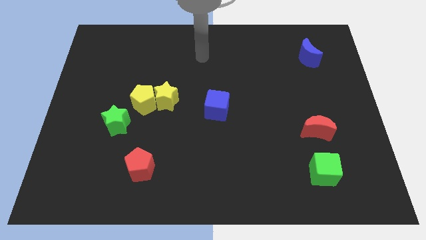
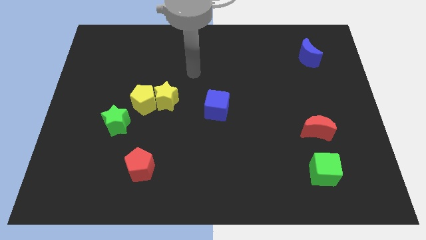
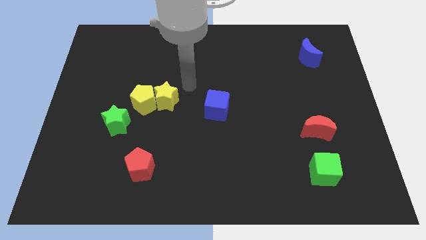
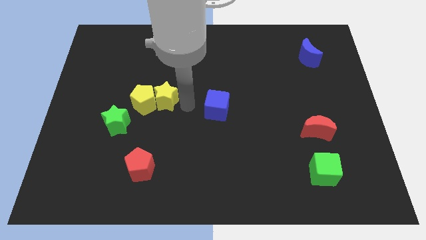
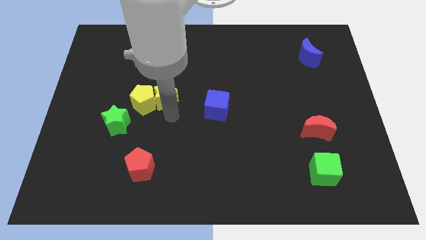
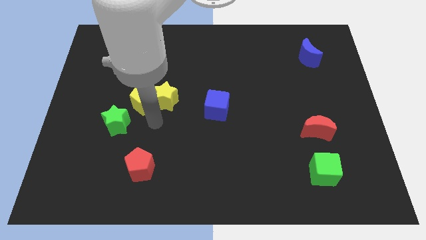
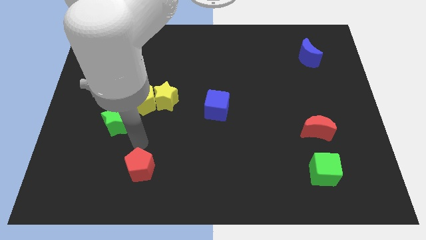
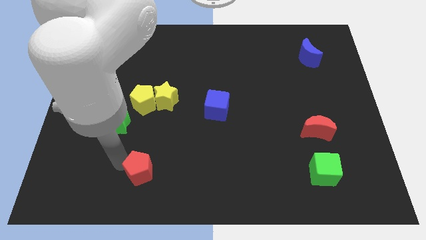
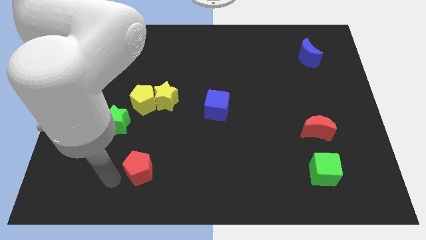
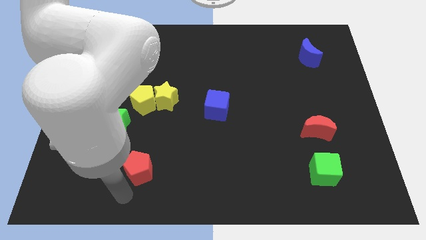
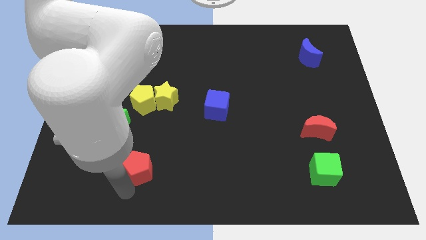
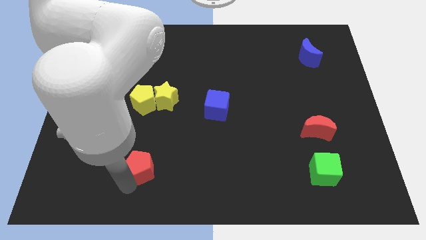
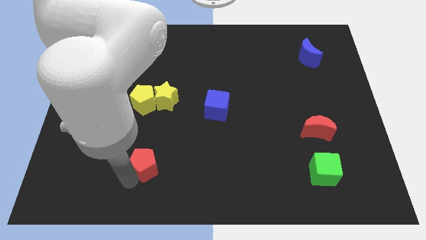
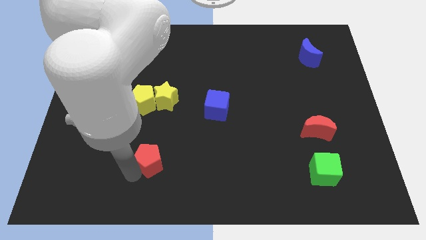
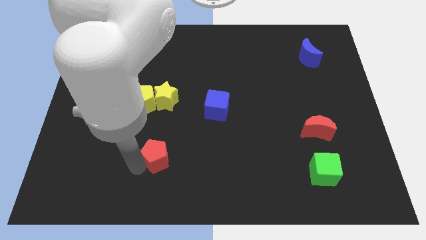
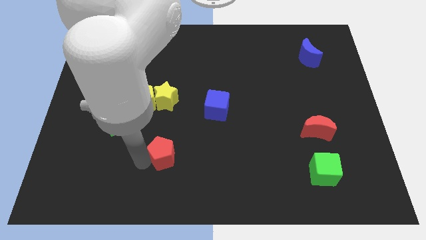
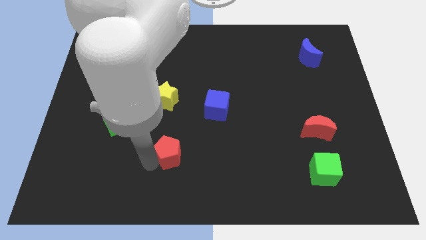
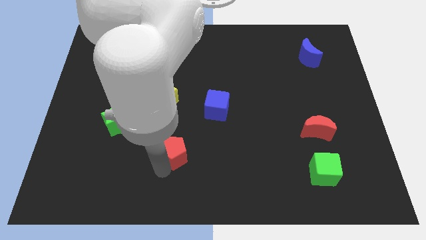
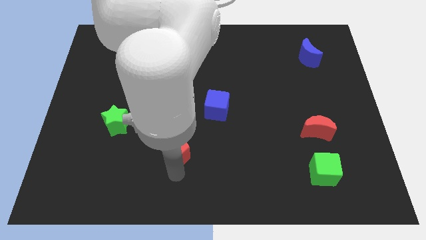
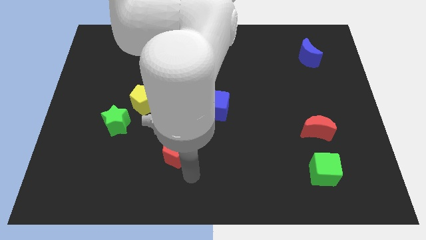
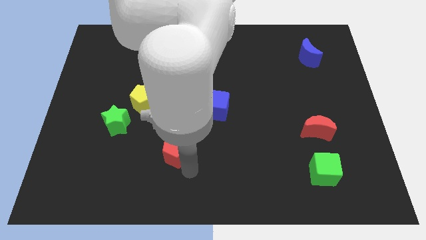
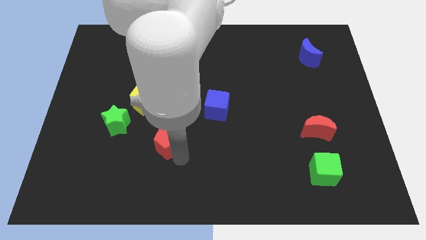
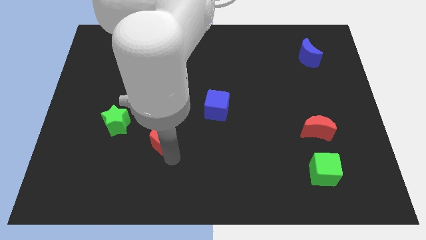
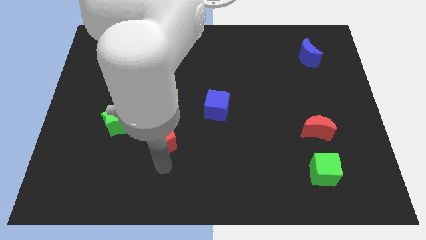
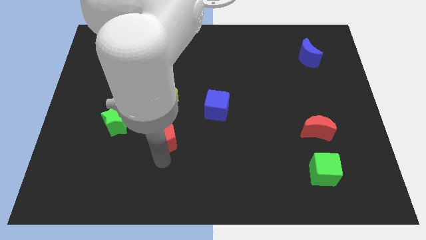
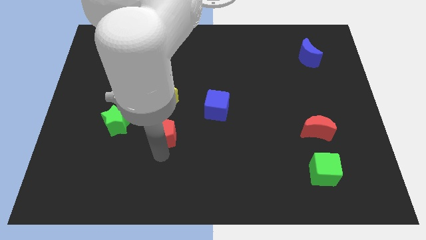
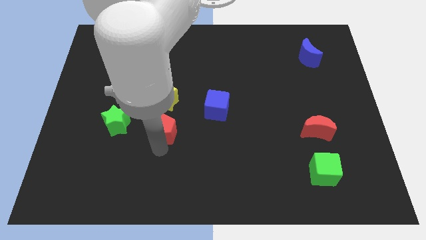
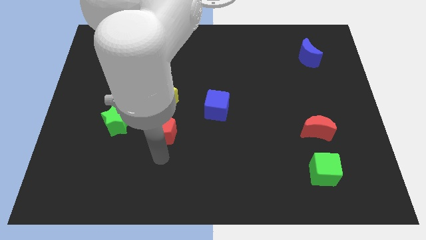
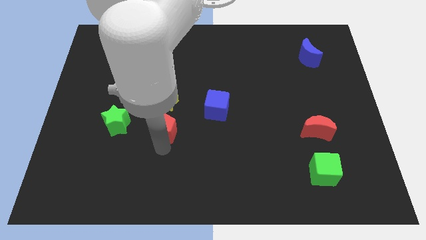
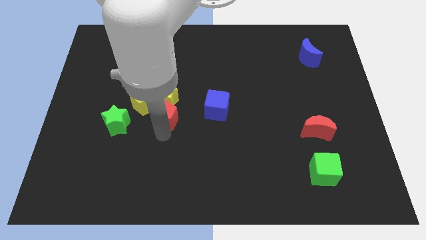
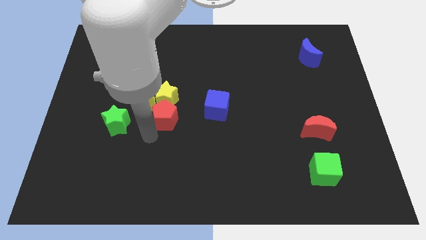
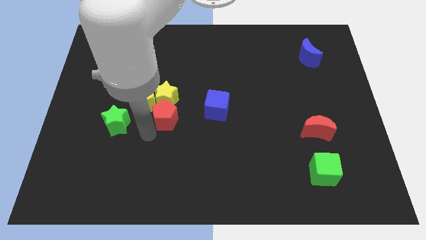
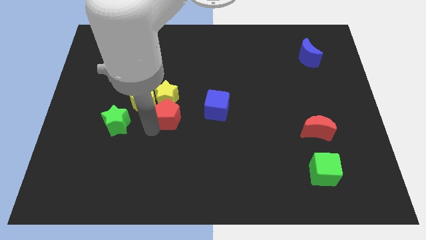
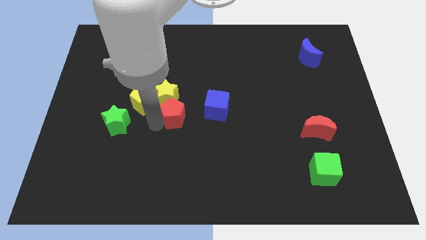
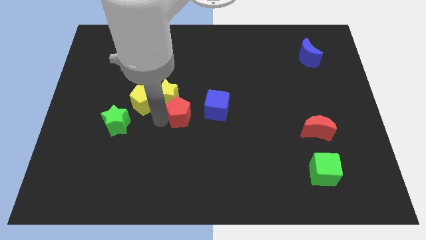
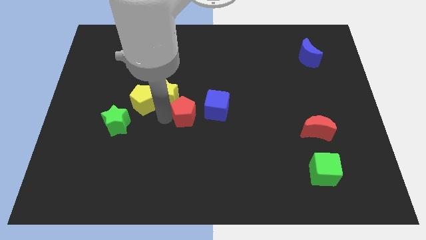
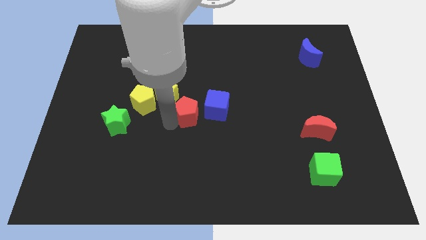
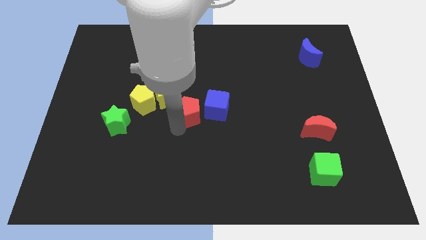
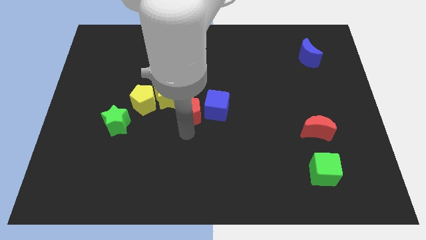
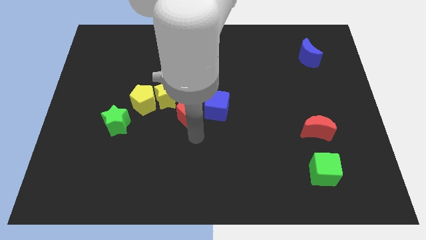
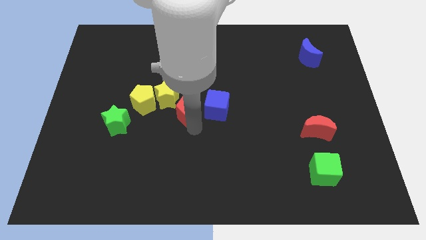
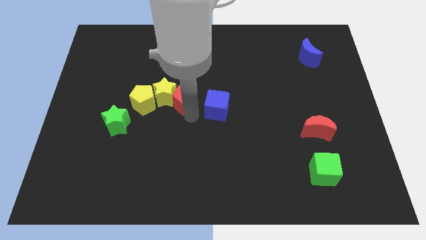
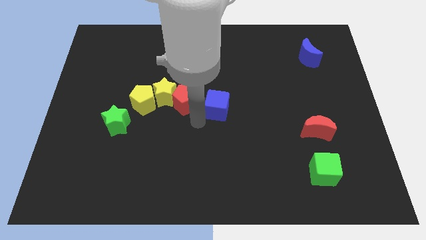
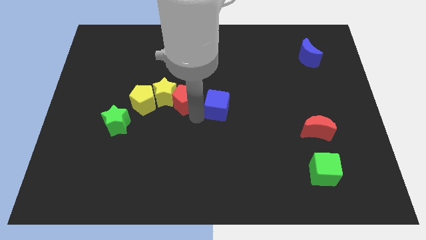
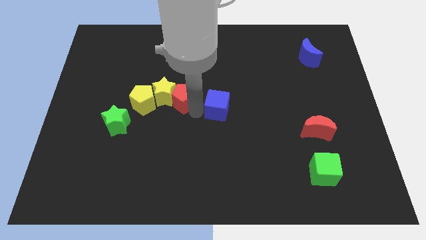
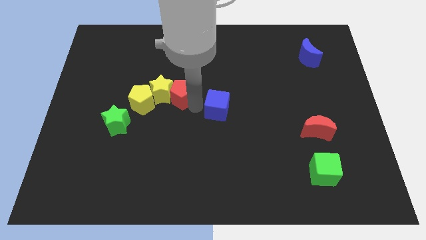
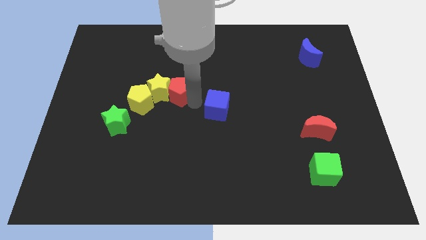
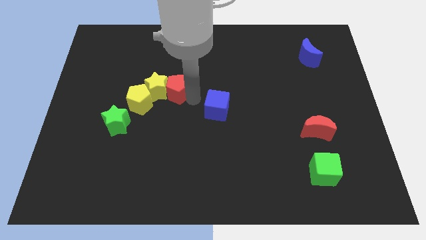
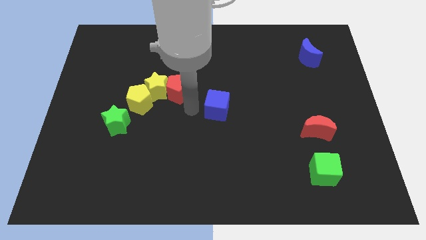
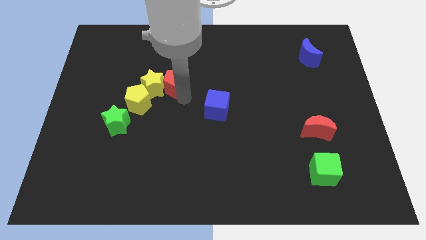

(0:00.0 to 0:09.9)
push the red pentagon up

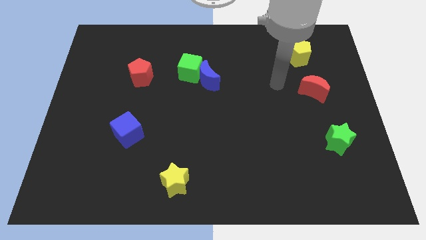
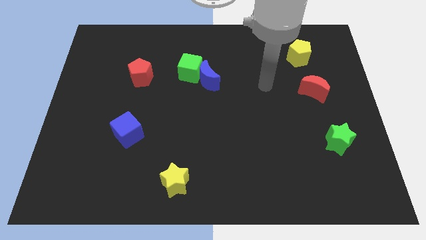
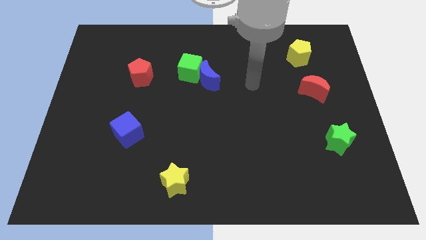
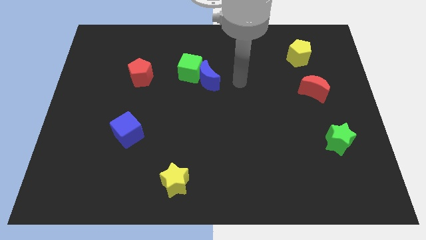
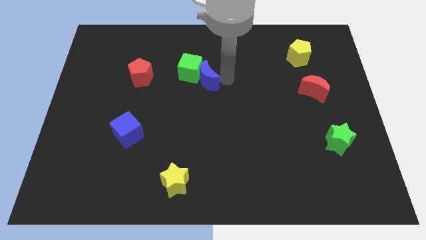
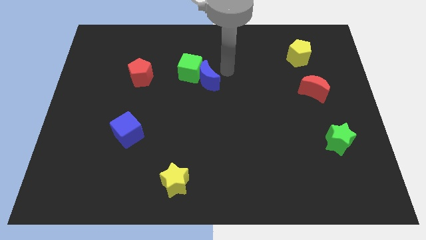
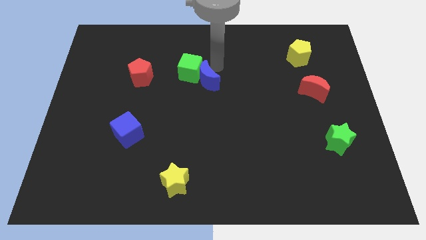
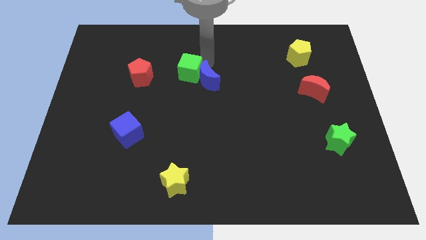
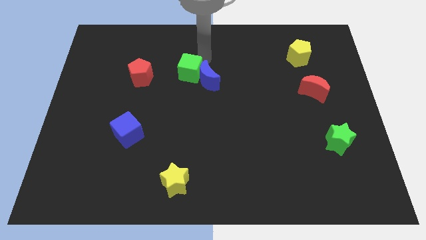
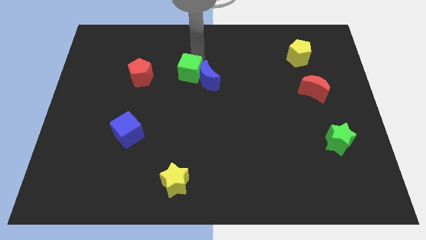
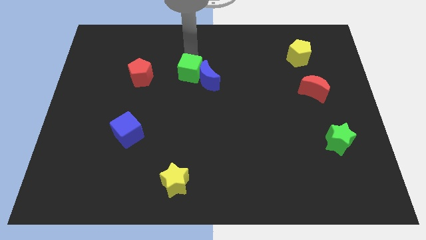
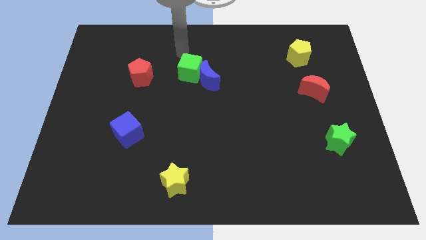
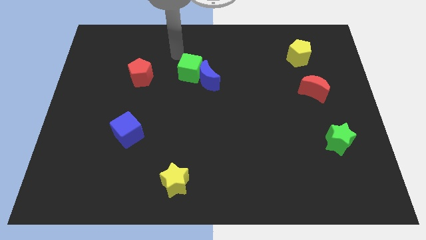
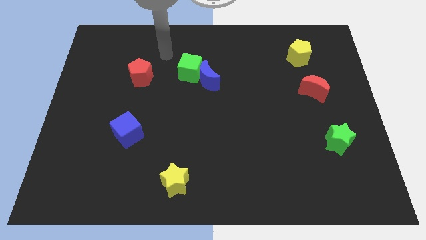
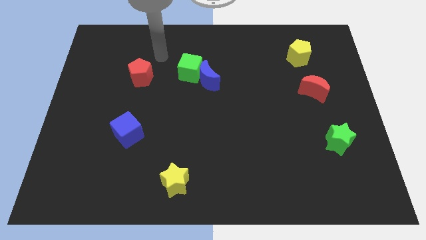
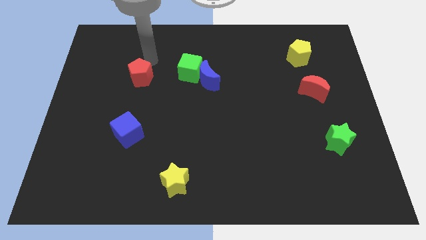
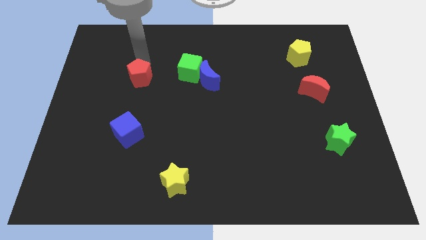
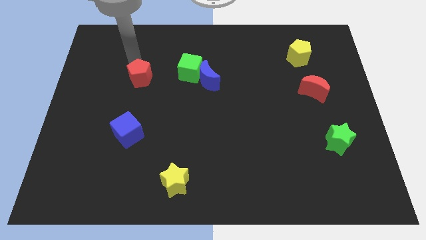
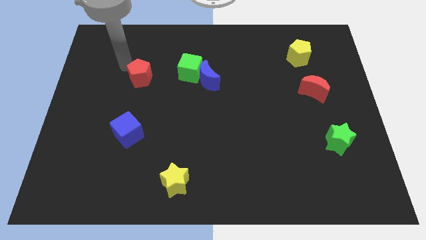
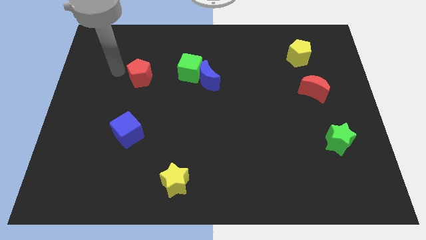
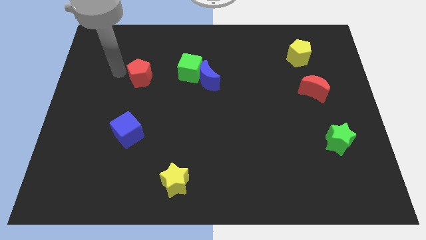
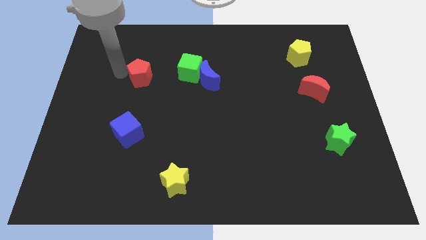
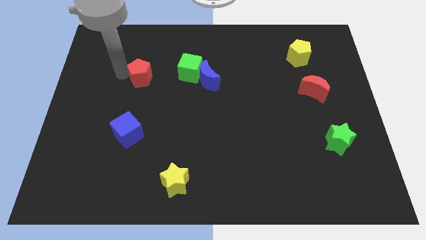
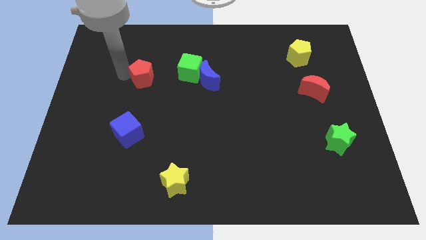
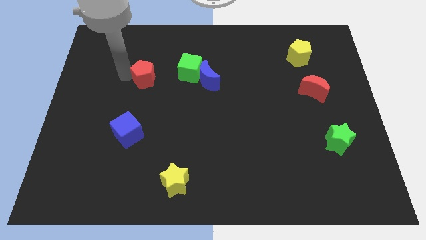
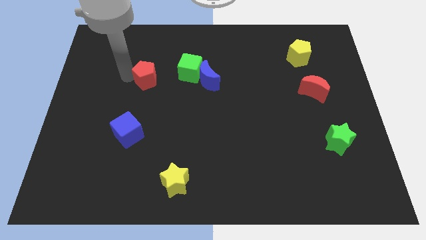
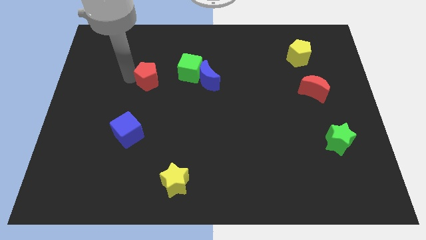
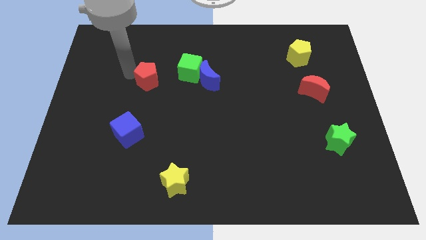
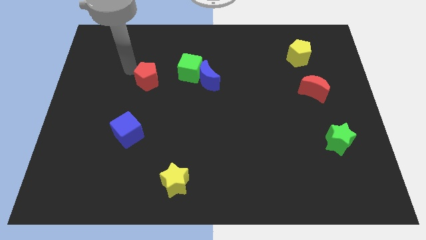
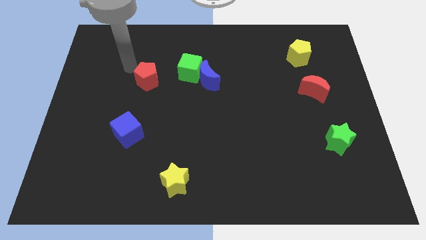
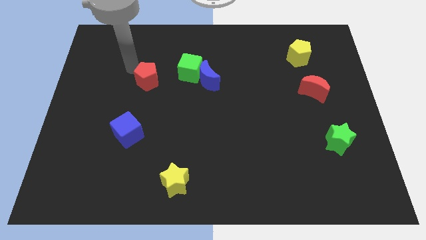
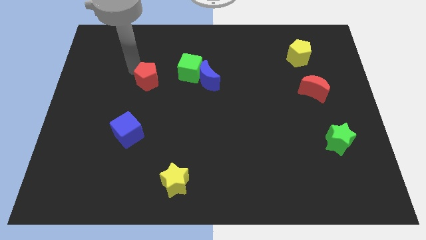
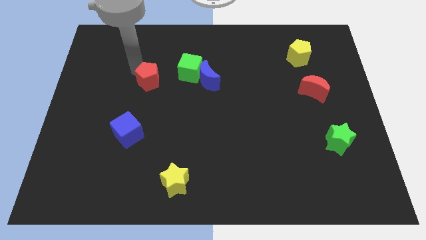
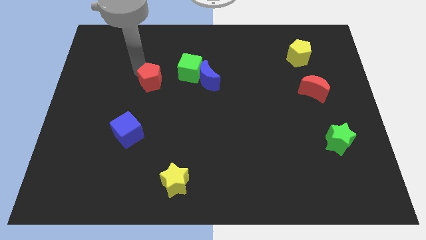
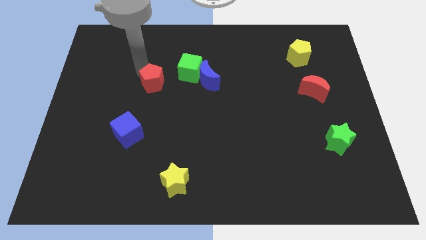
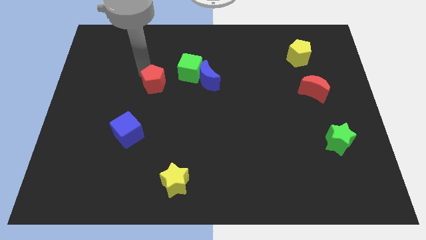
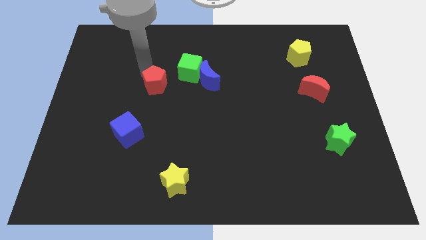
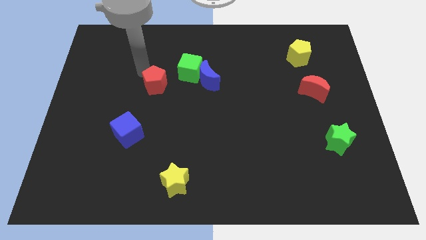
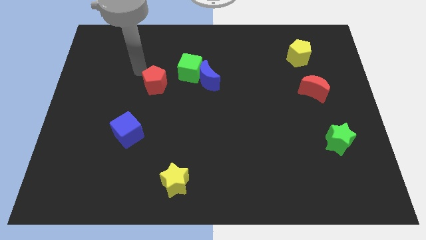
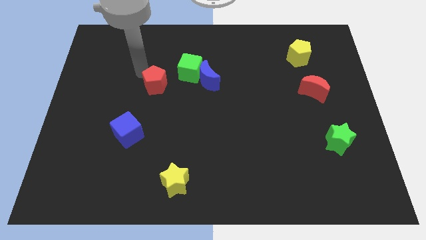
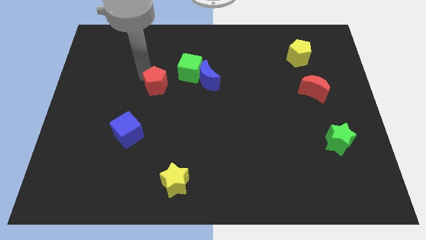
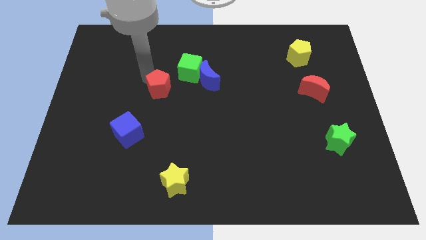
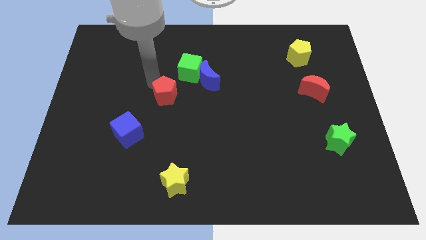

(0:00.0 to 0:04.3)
push the red pentagon somewhat downwards and then right
